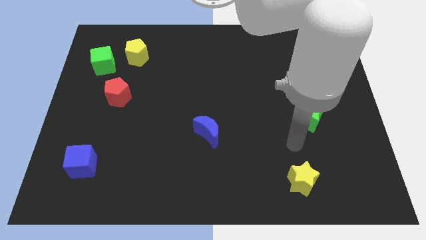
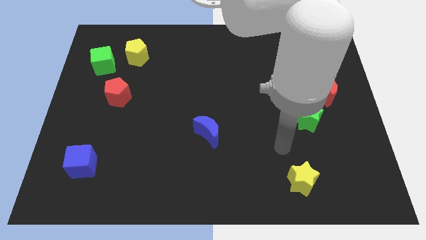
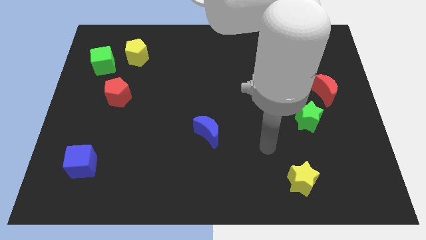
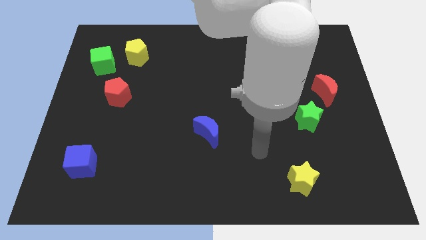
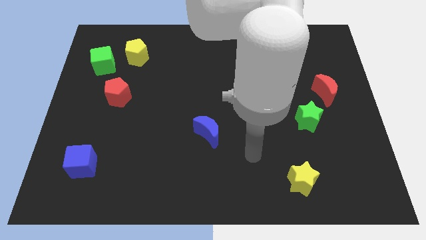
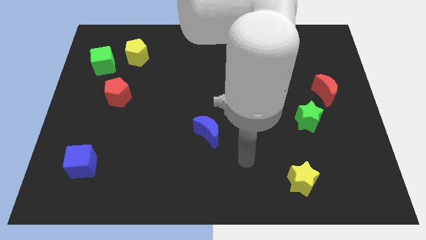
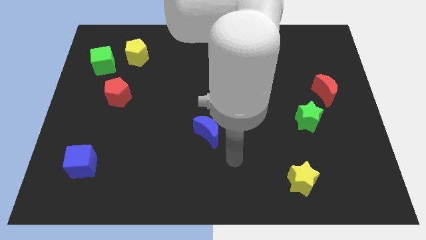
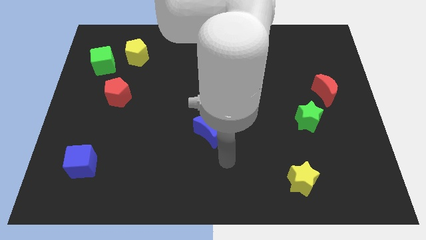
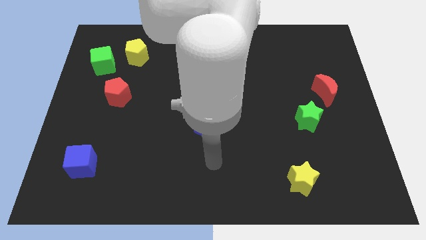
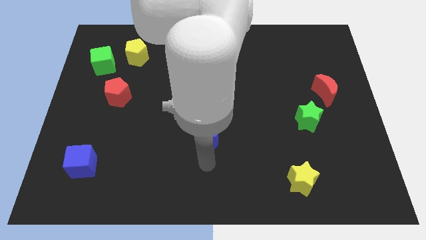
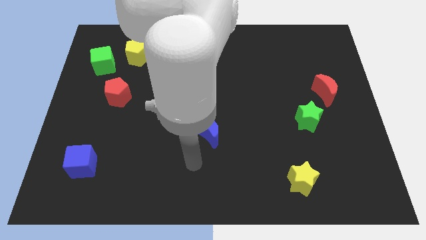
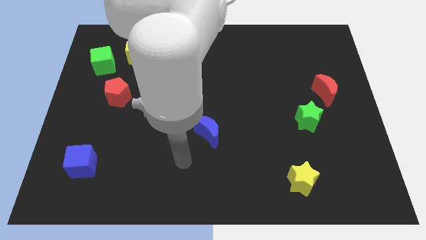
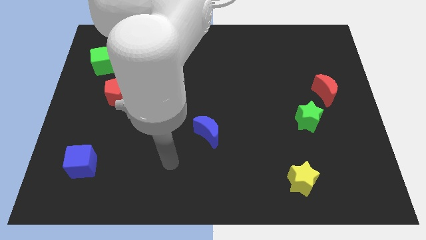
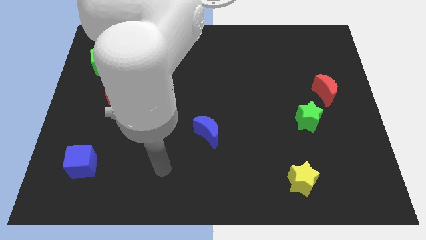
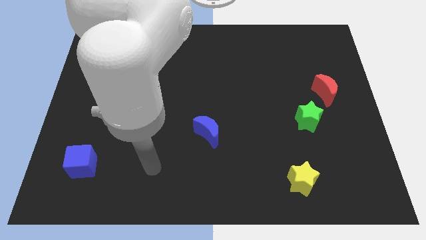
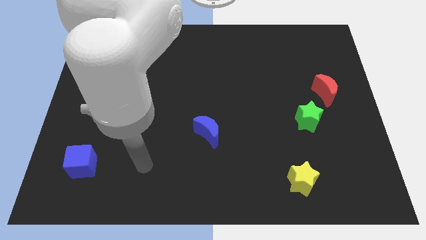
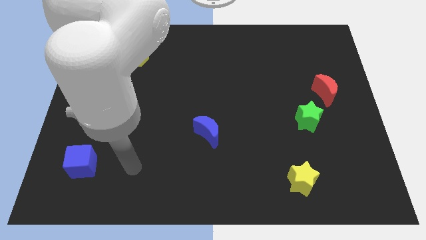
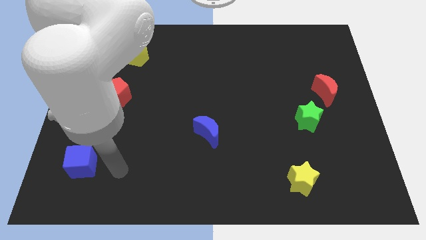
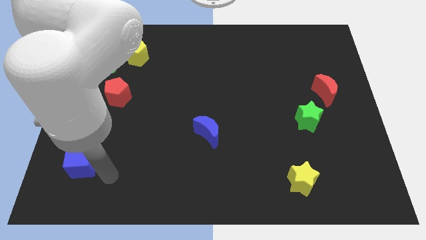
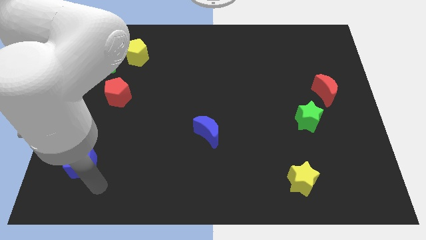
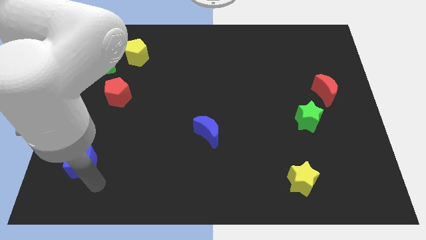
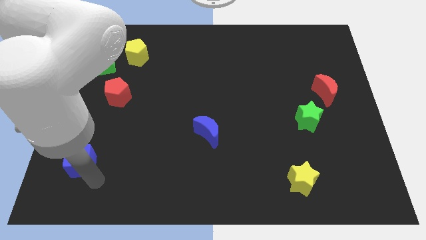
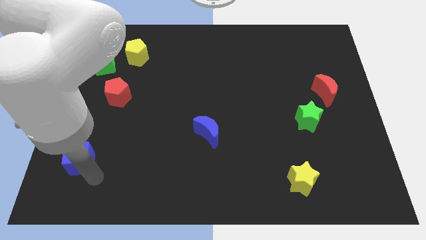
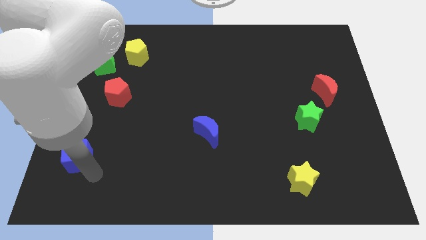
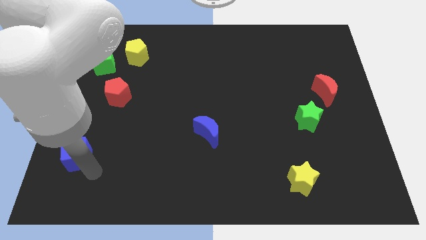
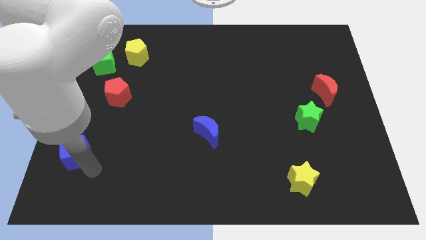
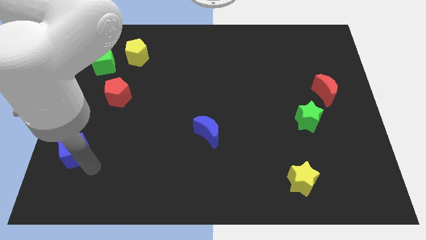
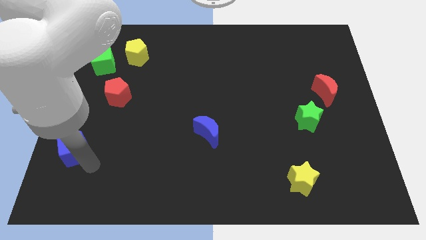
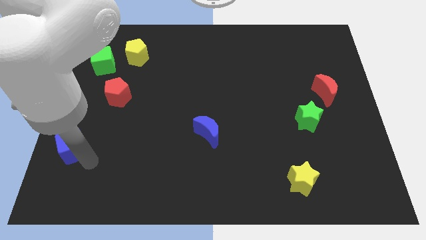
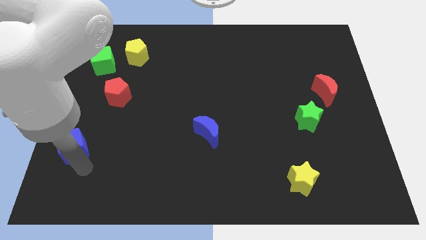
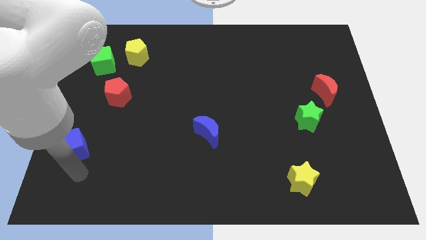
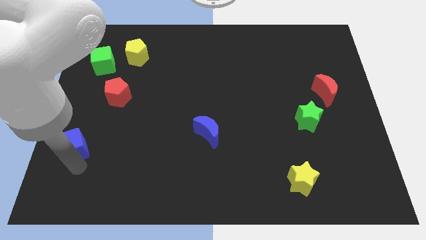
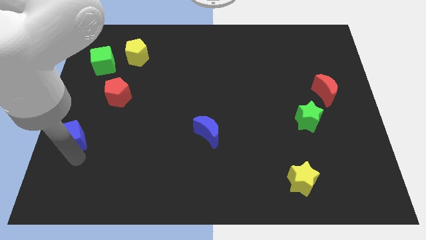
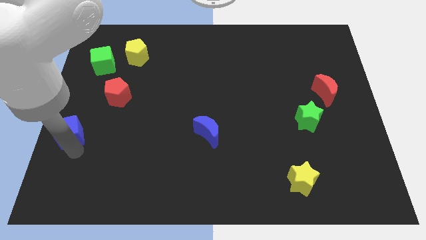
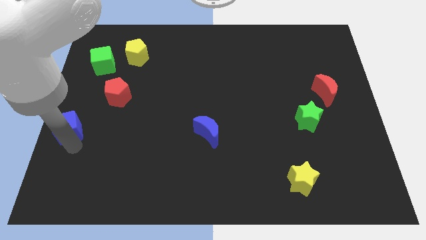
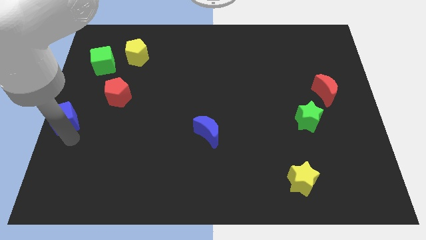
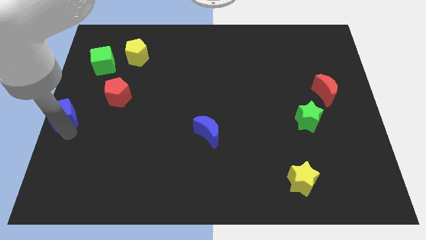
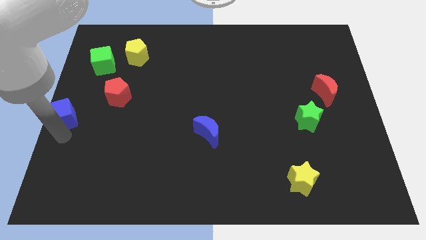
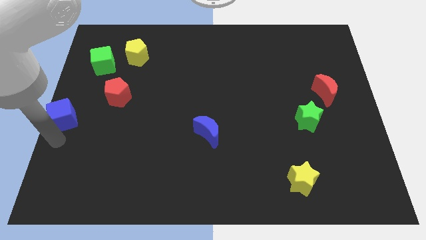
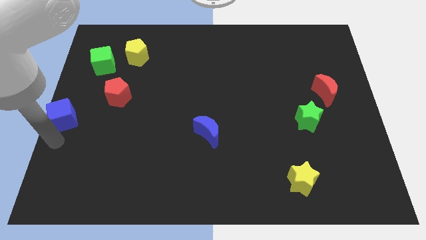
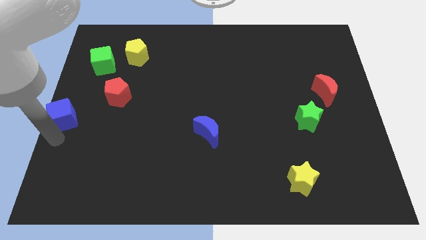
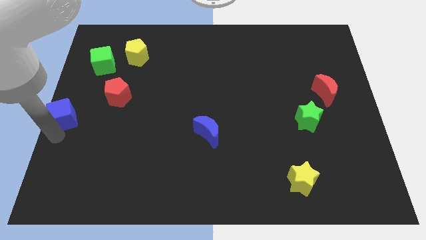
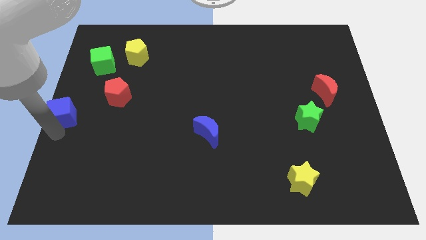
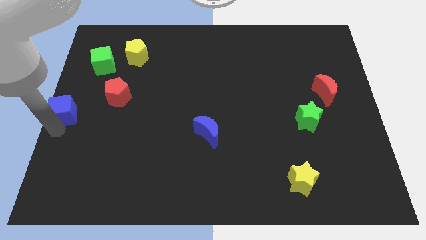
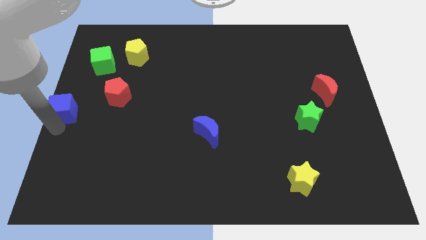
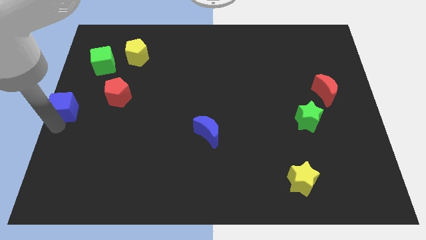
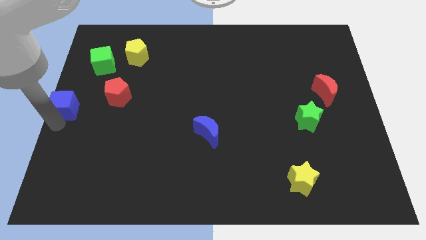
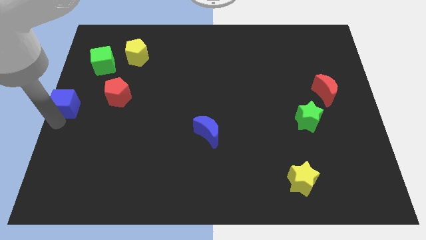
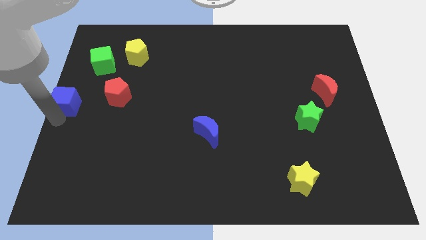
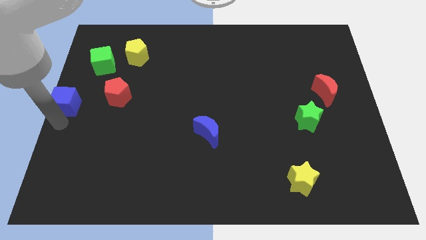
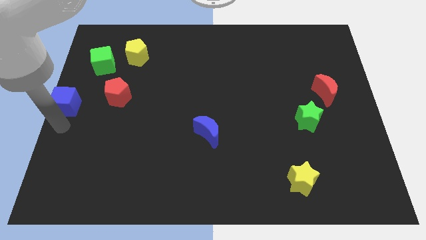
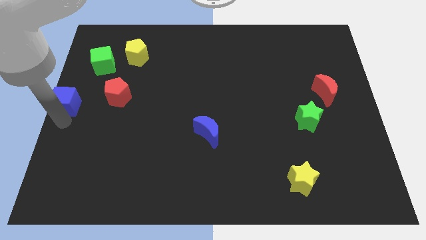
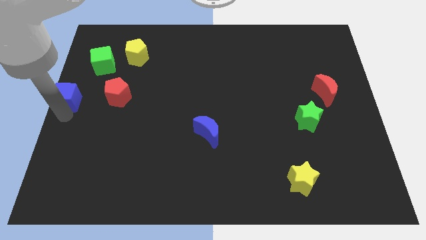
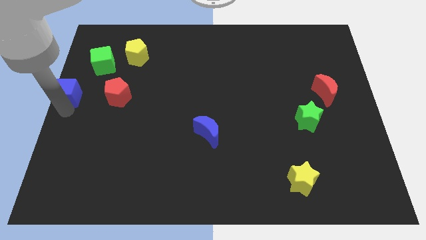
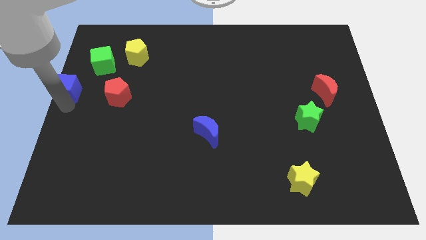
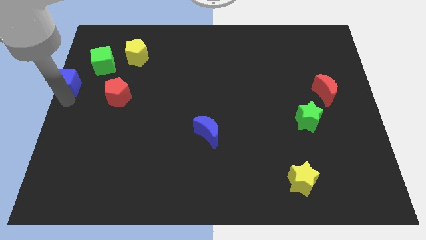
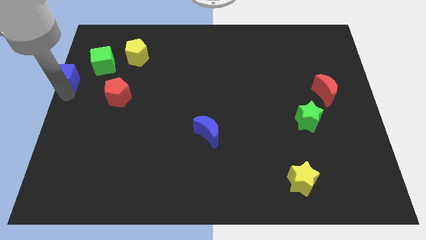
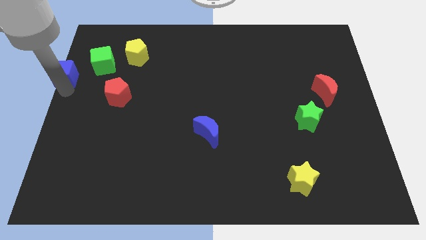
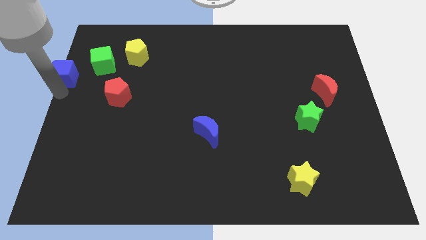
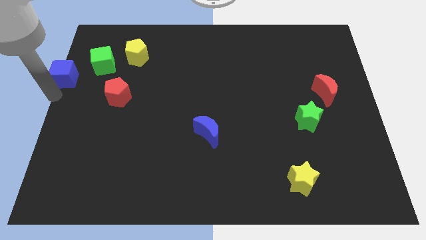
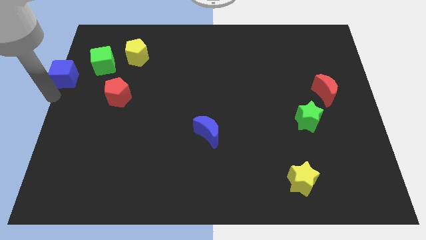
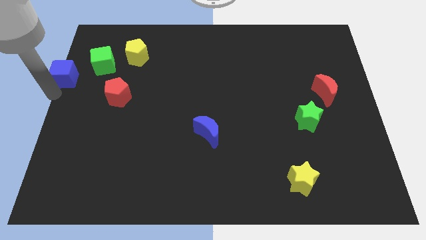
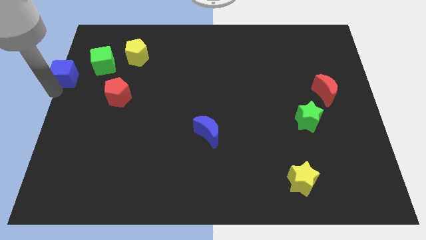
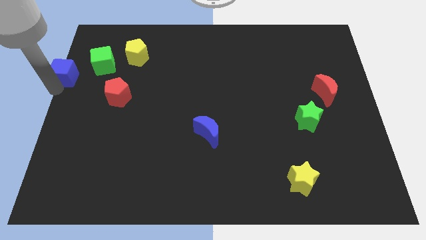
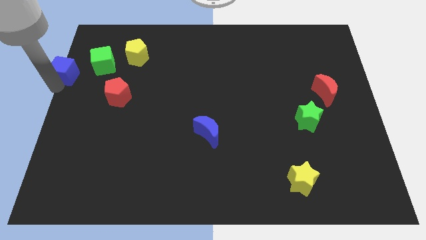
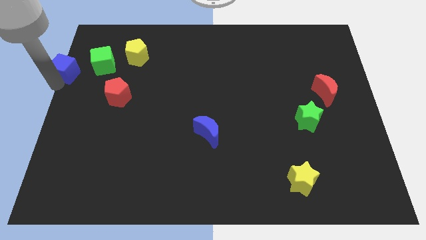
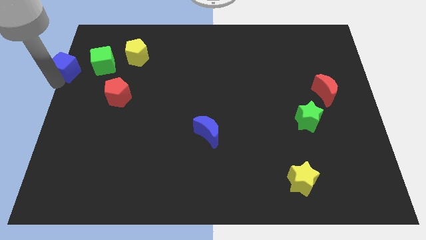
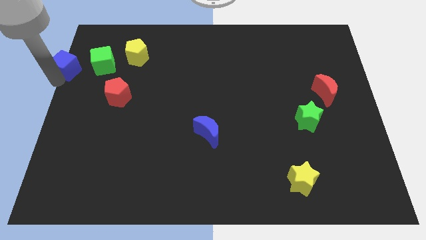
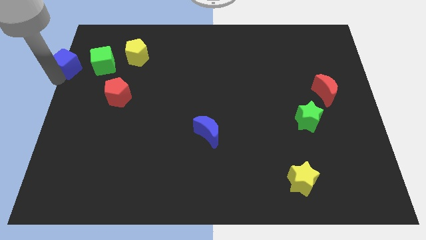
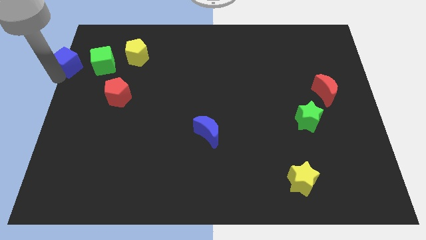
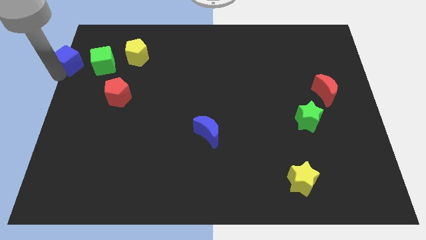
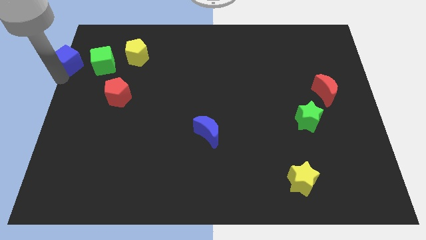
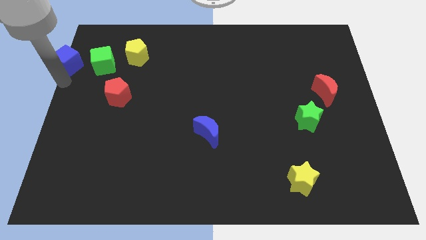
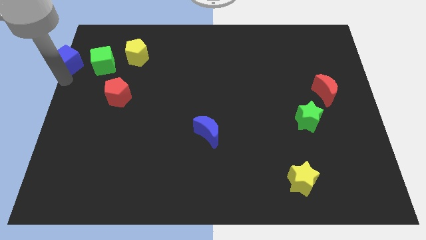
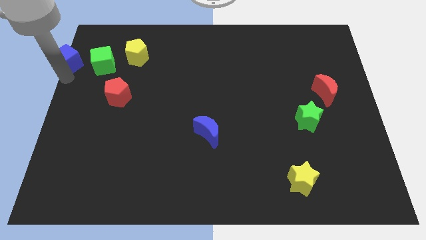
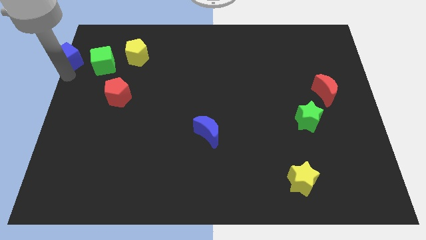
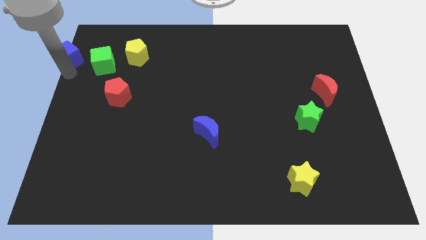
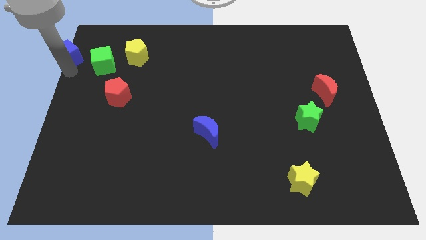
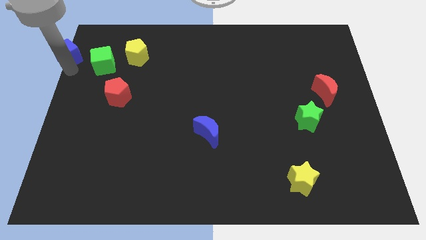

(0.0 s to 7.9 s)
slide the blue cube to the top left
